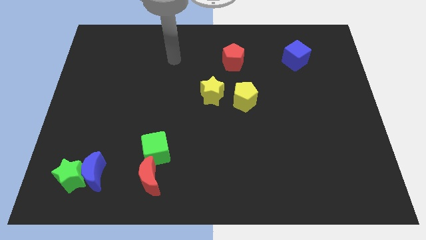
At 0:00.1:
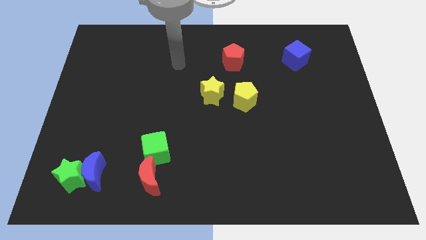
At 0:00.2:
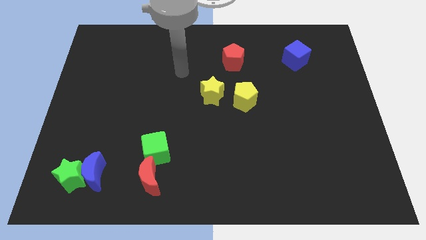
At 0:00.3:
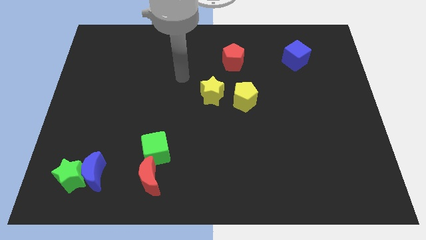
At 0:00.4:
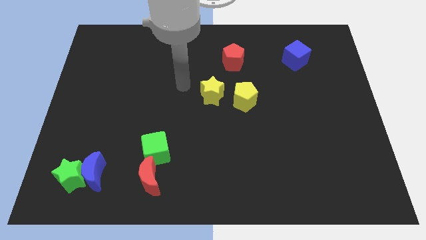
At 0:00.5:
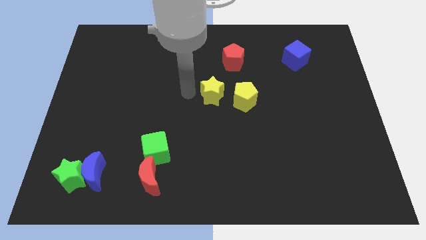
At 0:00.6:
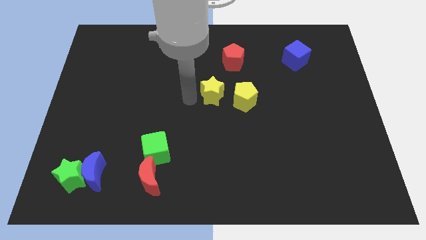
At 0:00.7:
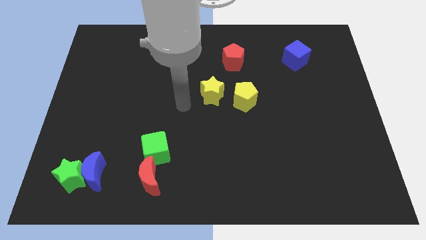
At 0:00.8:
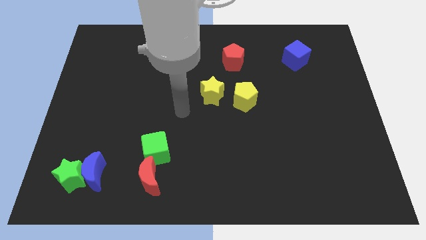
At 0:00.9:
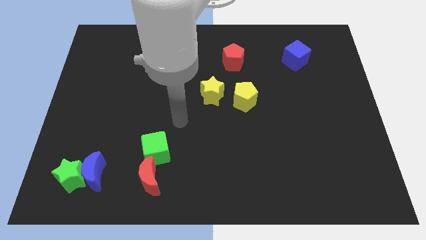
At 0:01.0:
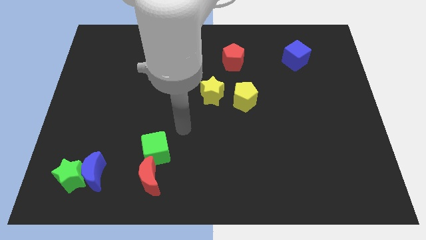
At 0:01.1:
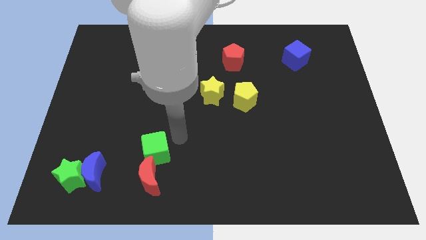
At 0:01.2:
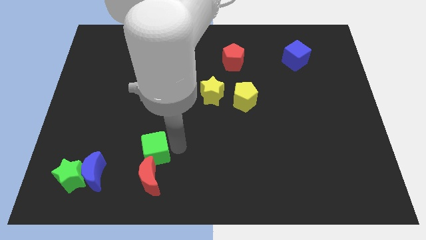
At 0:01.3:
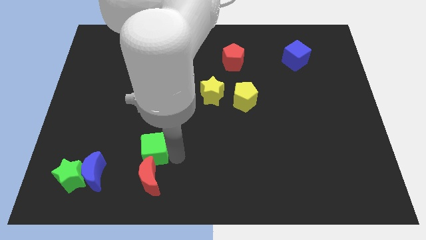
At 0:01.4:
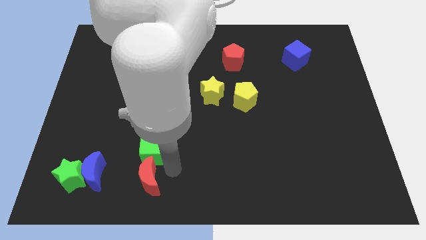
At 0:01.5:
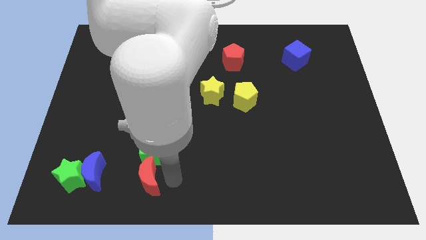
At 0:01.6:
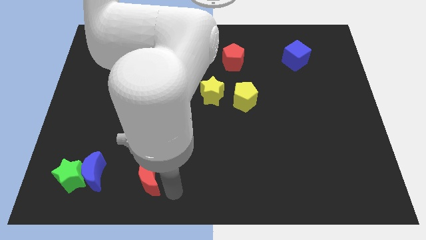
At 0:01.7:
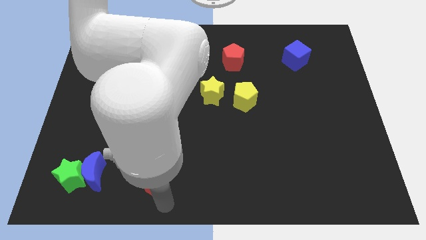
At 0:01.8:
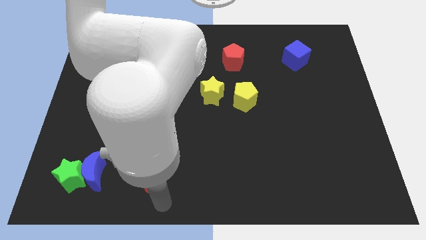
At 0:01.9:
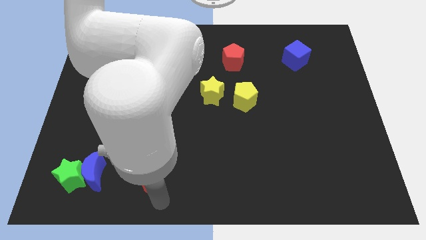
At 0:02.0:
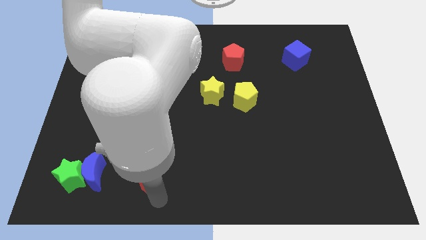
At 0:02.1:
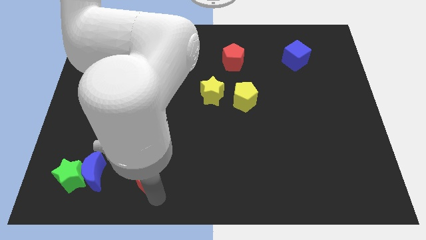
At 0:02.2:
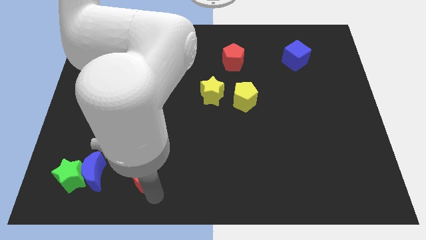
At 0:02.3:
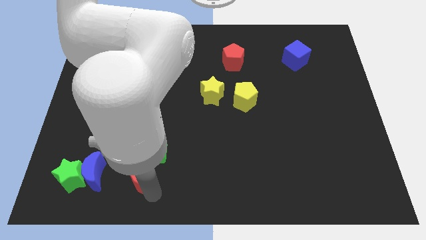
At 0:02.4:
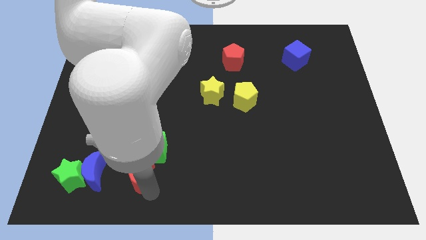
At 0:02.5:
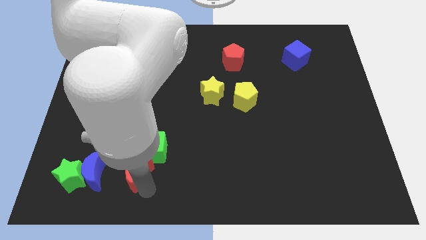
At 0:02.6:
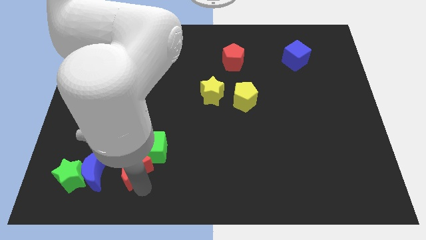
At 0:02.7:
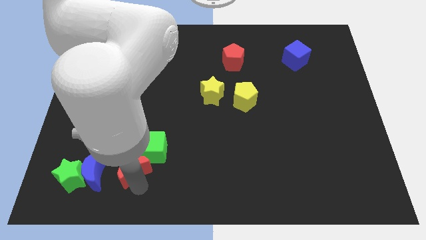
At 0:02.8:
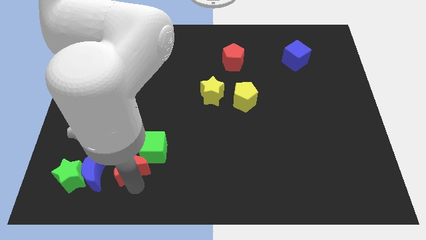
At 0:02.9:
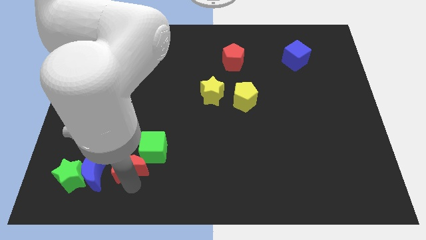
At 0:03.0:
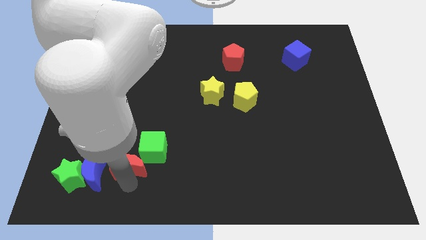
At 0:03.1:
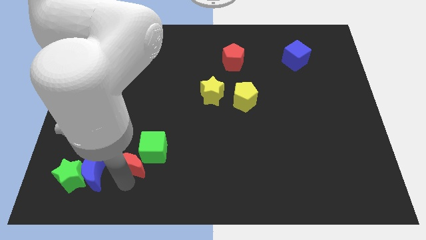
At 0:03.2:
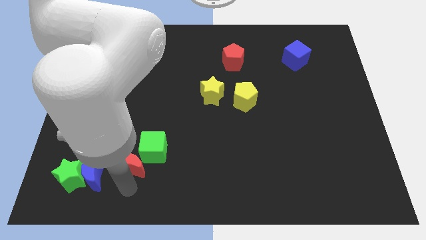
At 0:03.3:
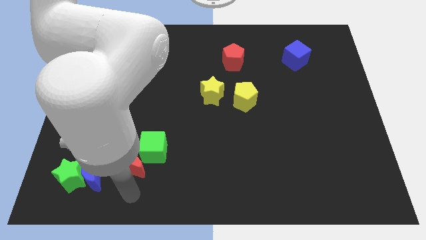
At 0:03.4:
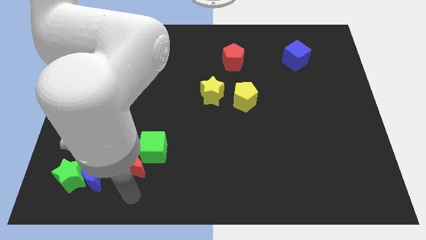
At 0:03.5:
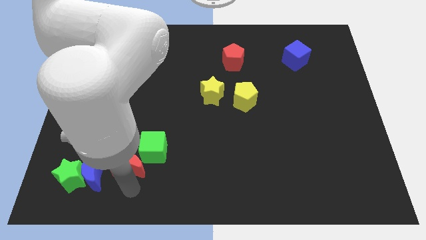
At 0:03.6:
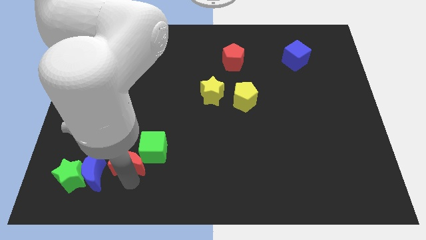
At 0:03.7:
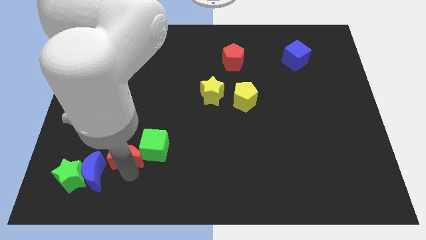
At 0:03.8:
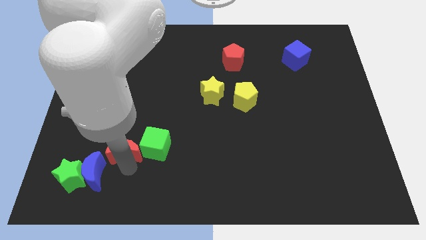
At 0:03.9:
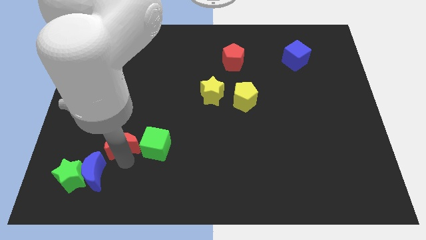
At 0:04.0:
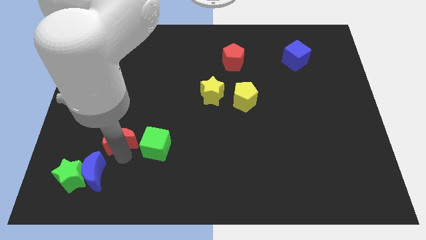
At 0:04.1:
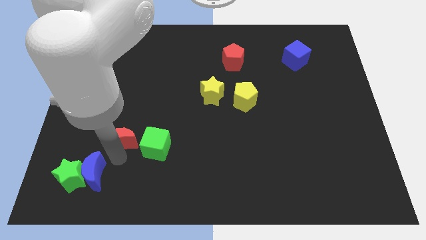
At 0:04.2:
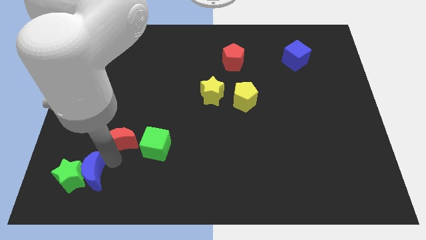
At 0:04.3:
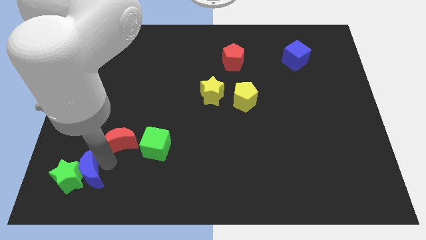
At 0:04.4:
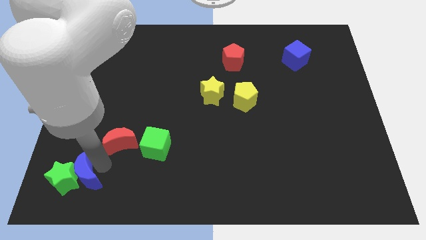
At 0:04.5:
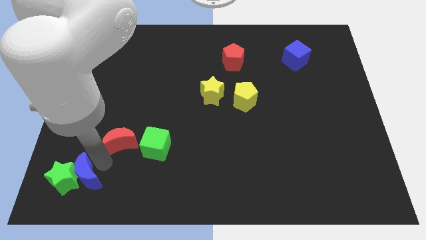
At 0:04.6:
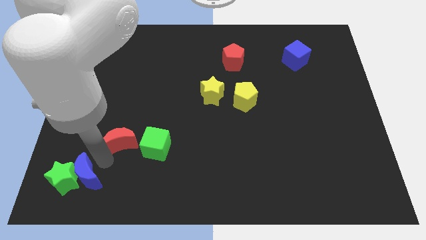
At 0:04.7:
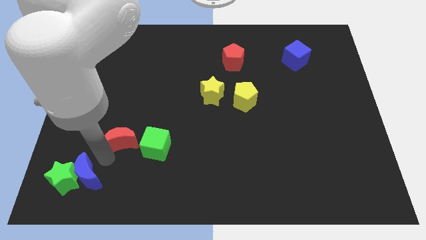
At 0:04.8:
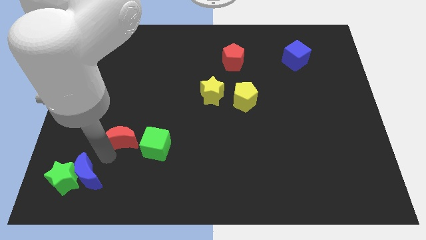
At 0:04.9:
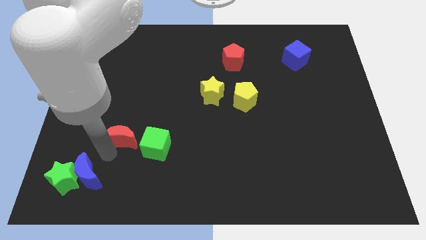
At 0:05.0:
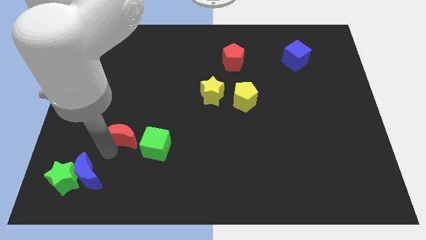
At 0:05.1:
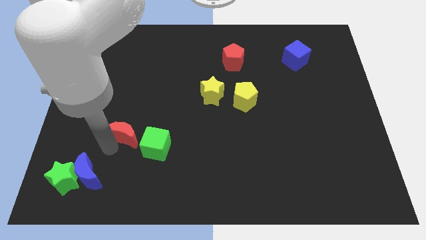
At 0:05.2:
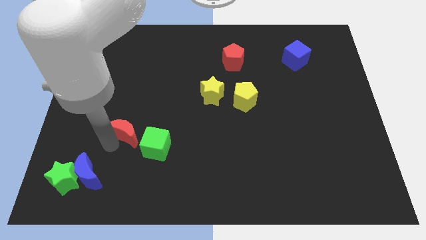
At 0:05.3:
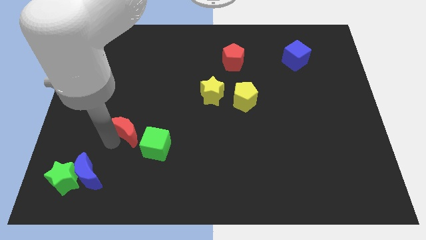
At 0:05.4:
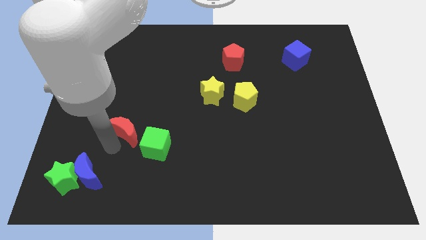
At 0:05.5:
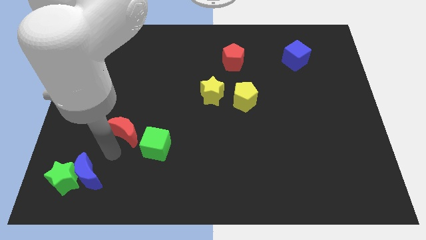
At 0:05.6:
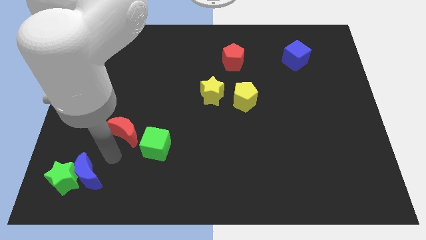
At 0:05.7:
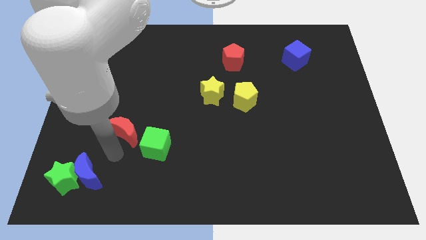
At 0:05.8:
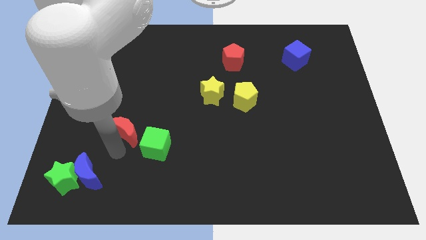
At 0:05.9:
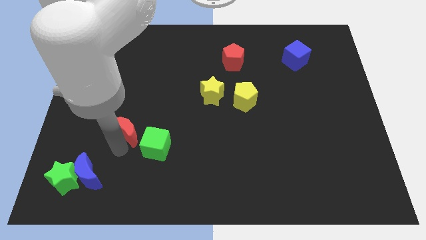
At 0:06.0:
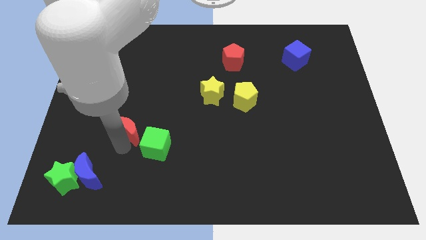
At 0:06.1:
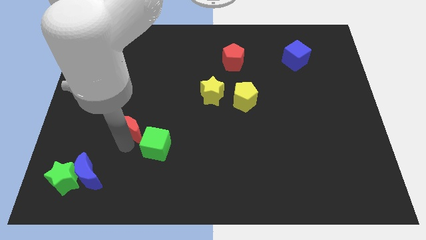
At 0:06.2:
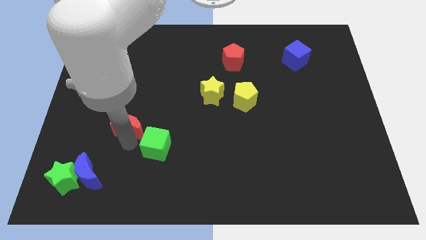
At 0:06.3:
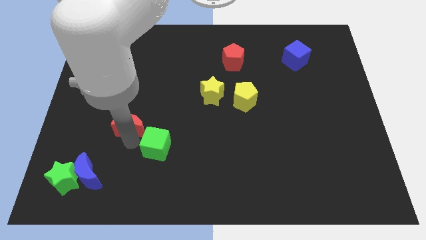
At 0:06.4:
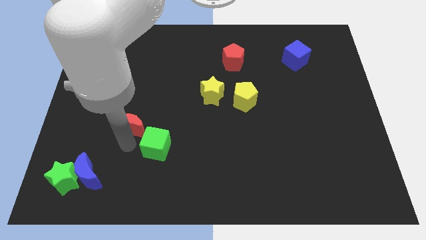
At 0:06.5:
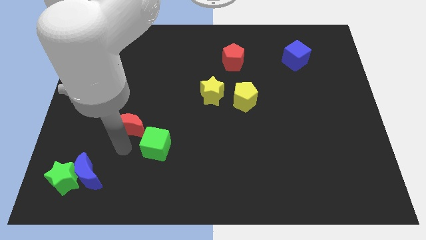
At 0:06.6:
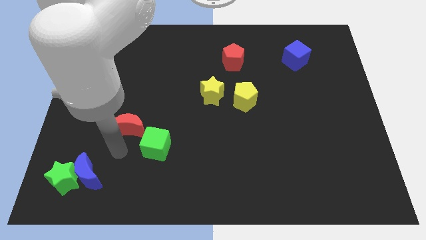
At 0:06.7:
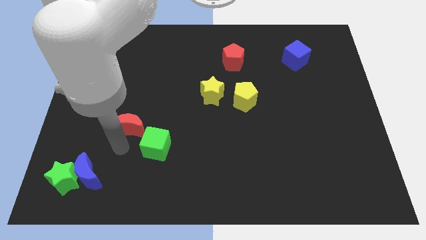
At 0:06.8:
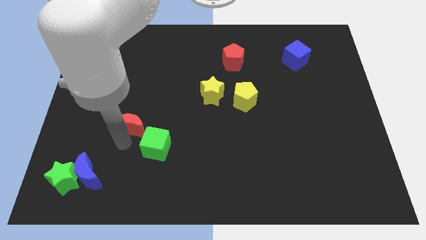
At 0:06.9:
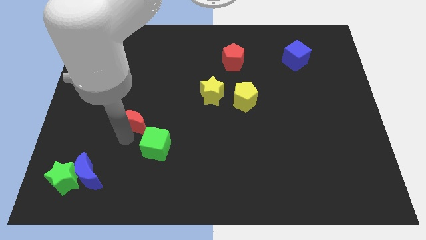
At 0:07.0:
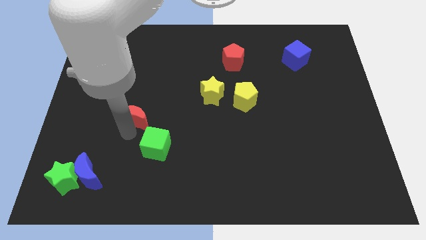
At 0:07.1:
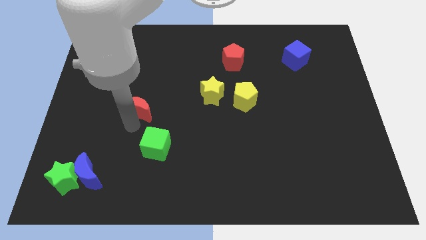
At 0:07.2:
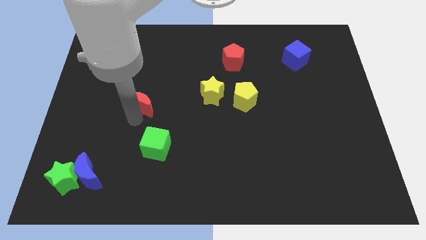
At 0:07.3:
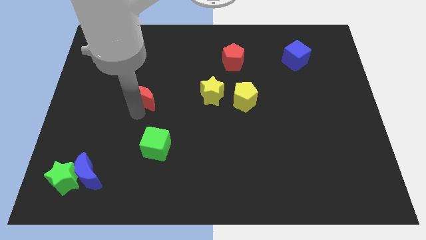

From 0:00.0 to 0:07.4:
move the red moon up

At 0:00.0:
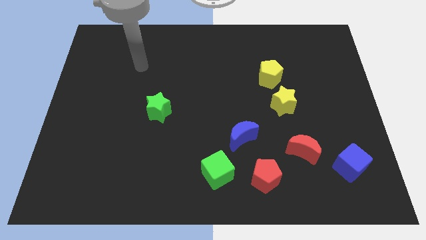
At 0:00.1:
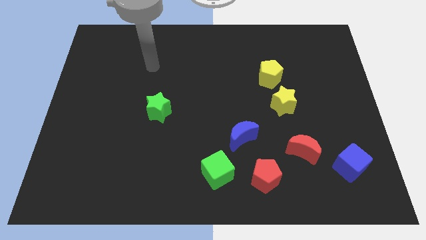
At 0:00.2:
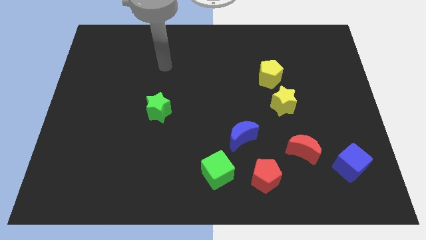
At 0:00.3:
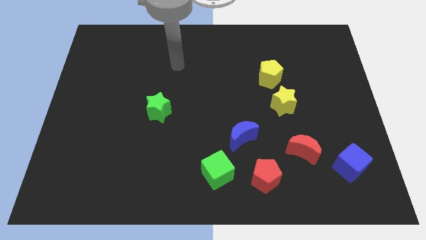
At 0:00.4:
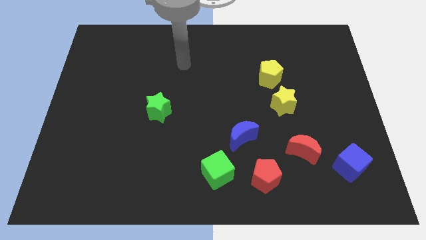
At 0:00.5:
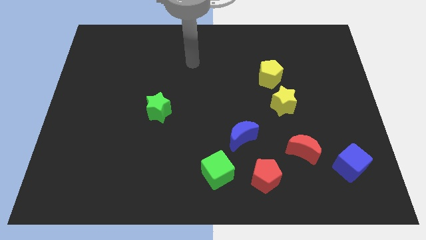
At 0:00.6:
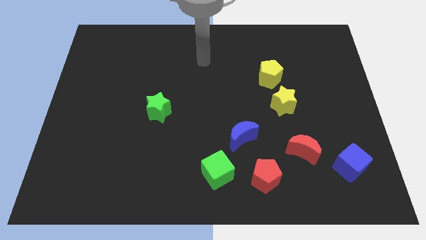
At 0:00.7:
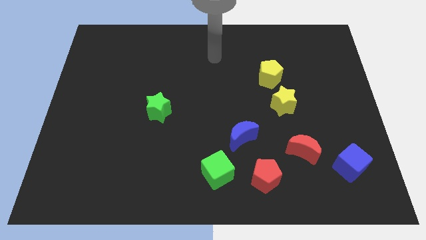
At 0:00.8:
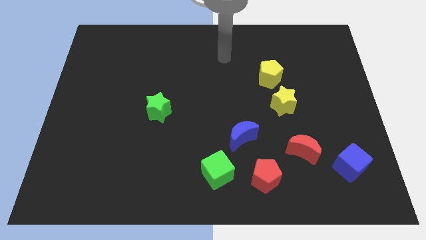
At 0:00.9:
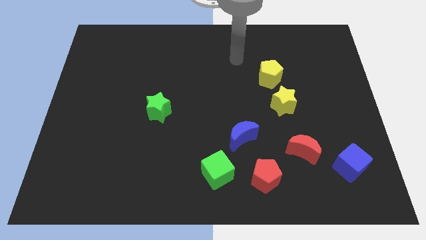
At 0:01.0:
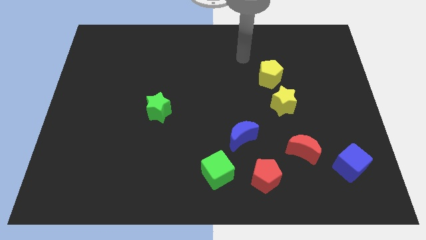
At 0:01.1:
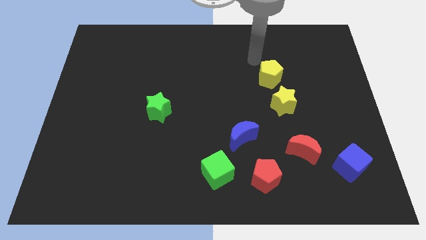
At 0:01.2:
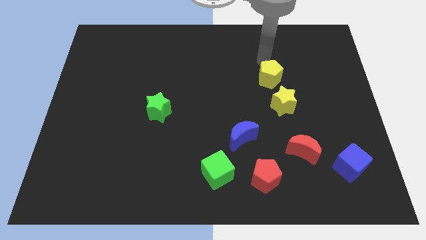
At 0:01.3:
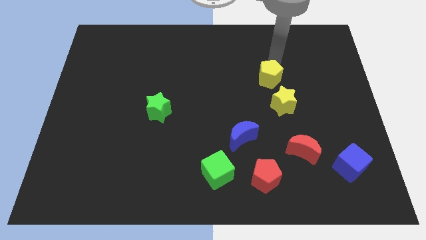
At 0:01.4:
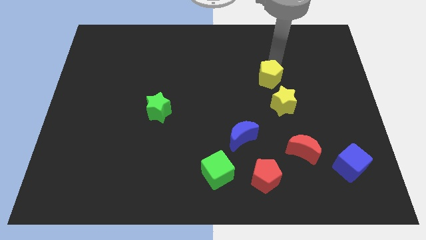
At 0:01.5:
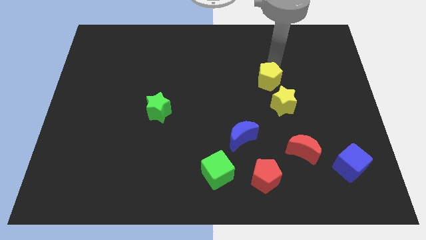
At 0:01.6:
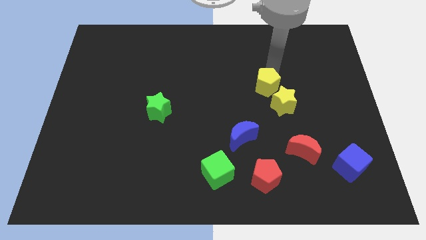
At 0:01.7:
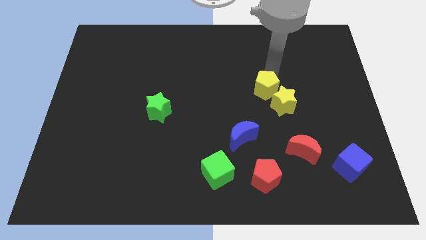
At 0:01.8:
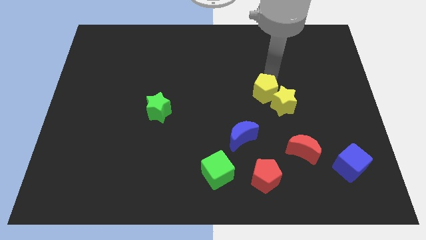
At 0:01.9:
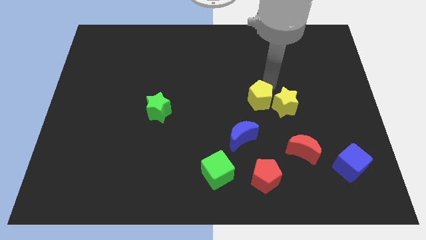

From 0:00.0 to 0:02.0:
slightly slide the yellow pentagon diagonally down and left
